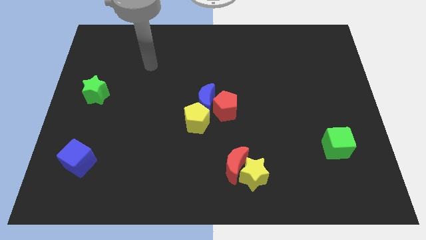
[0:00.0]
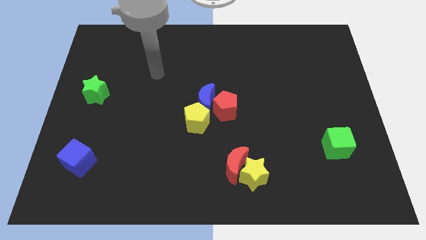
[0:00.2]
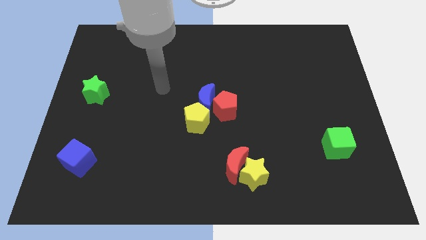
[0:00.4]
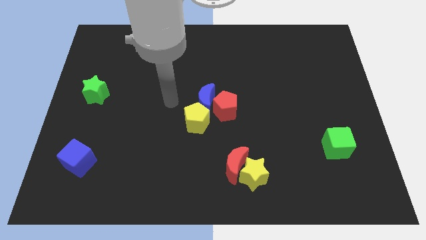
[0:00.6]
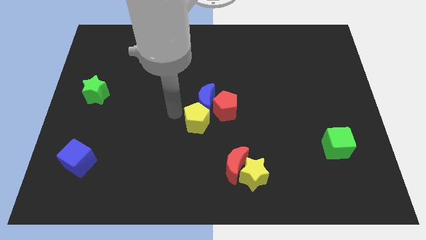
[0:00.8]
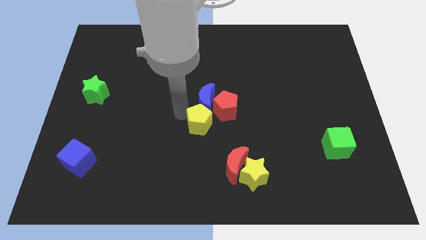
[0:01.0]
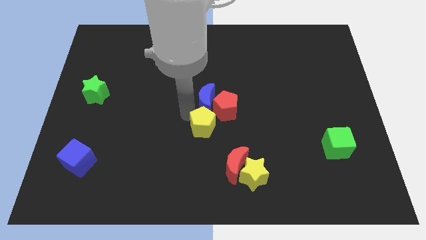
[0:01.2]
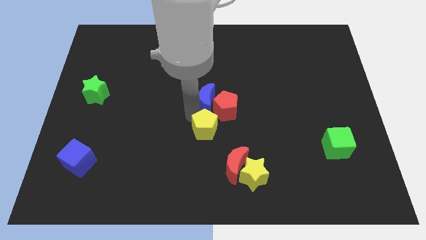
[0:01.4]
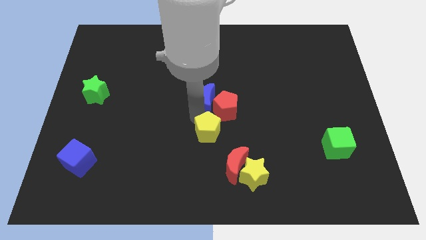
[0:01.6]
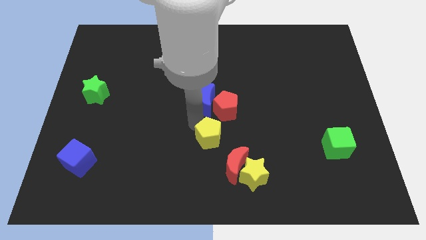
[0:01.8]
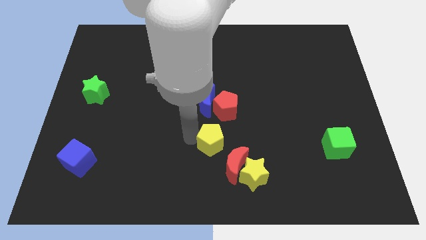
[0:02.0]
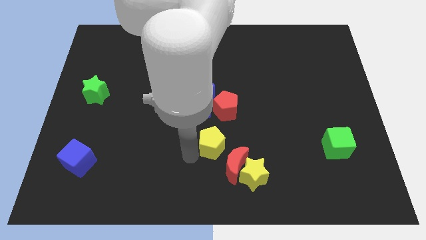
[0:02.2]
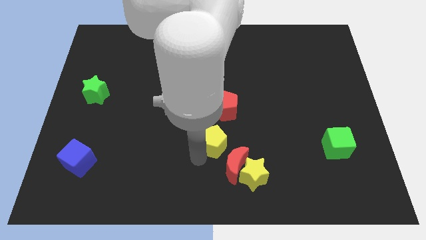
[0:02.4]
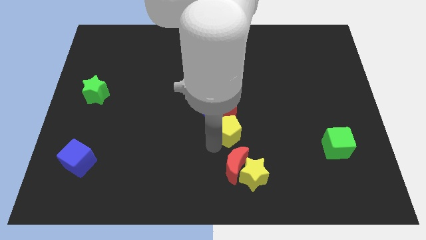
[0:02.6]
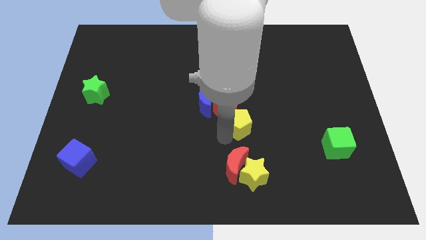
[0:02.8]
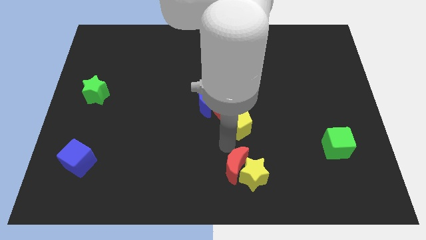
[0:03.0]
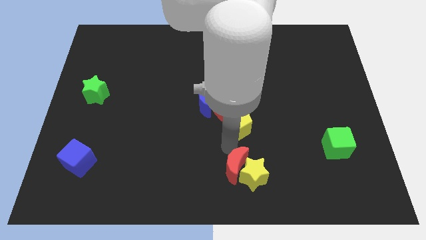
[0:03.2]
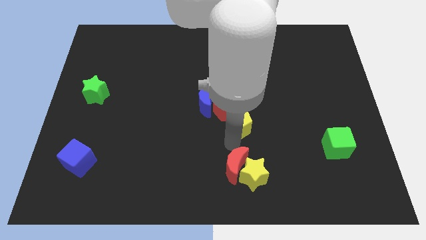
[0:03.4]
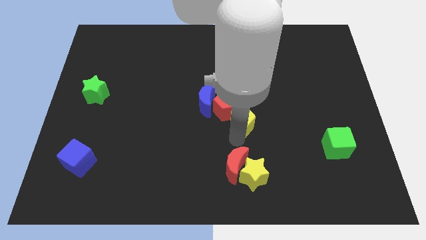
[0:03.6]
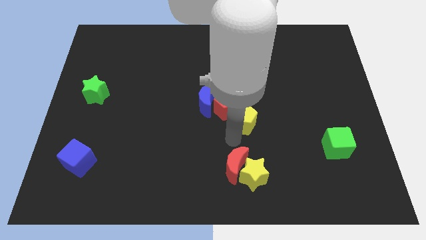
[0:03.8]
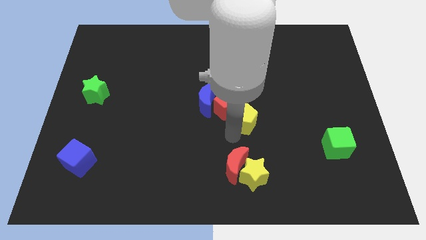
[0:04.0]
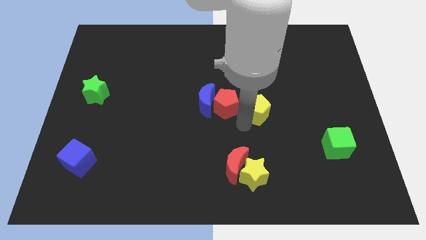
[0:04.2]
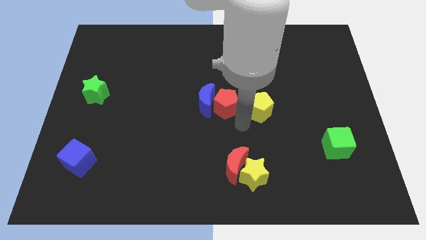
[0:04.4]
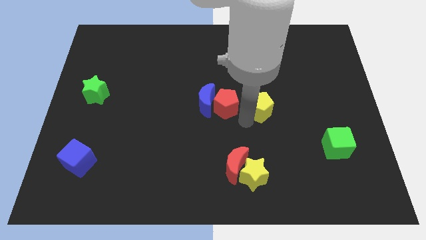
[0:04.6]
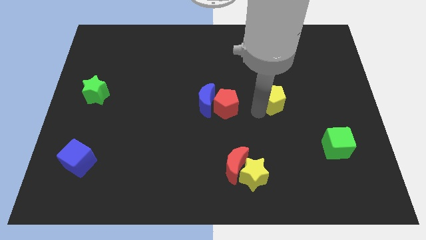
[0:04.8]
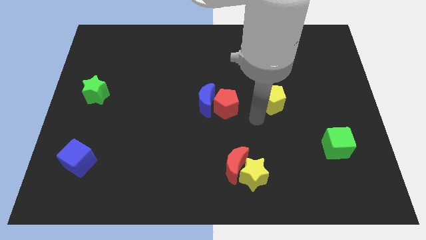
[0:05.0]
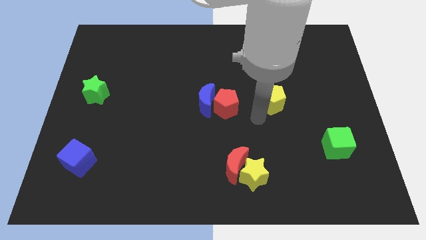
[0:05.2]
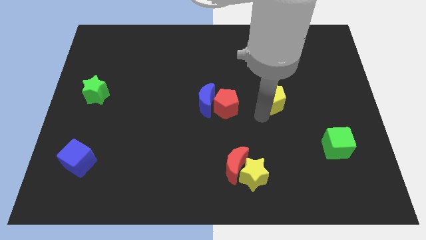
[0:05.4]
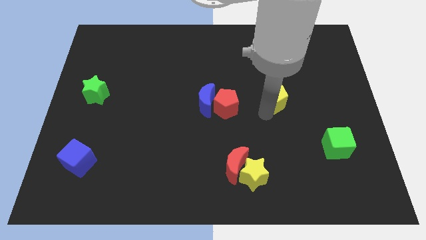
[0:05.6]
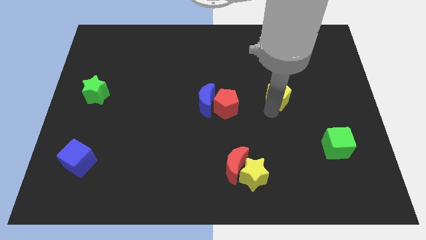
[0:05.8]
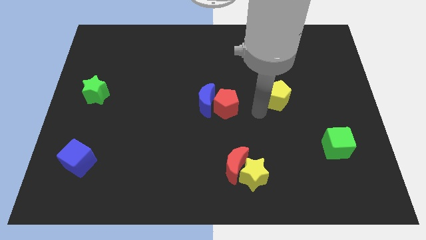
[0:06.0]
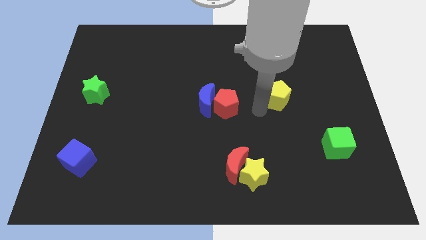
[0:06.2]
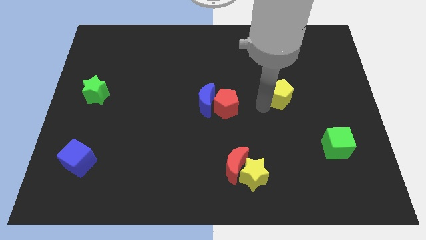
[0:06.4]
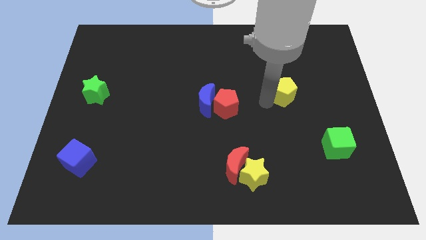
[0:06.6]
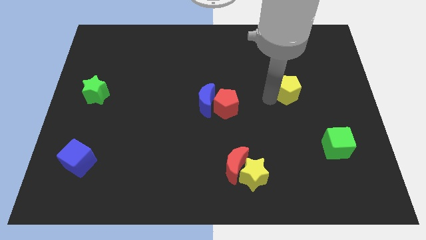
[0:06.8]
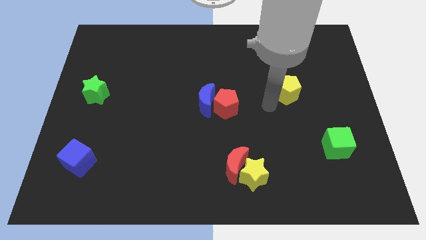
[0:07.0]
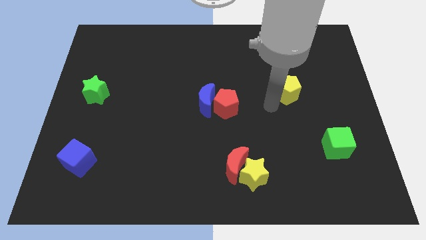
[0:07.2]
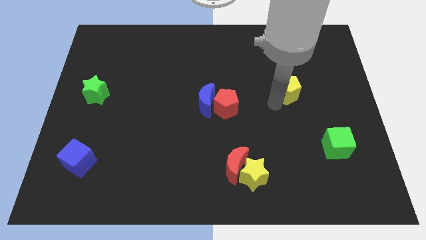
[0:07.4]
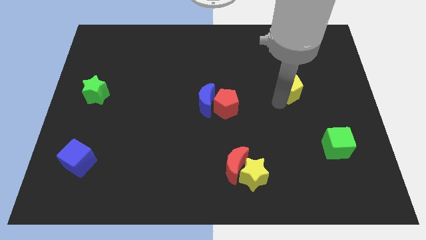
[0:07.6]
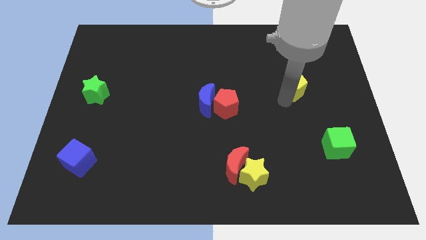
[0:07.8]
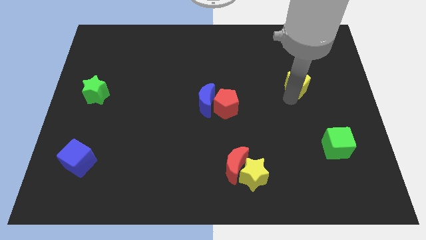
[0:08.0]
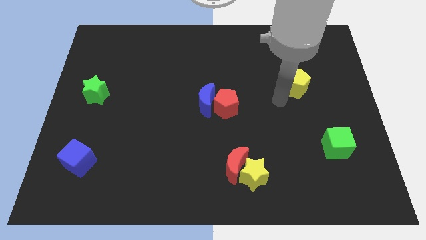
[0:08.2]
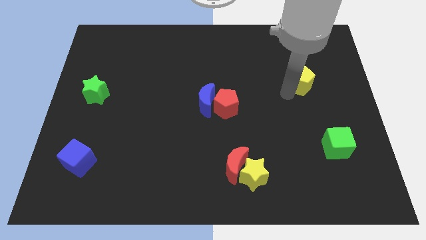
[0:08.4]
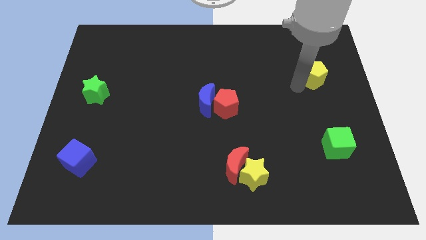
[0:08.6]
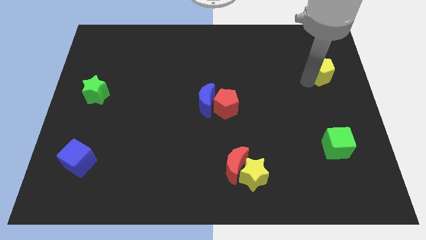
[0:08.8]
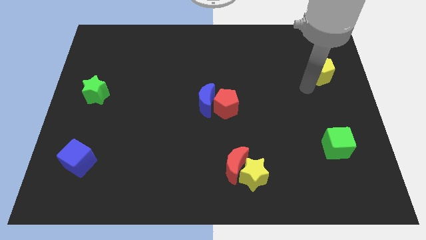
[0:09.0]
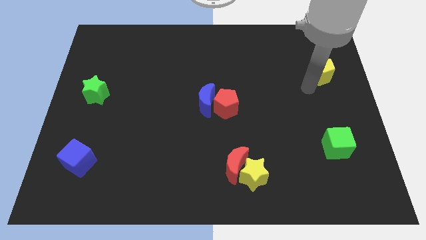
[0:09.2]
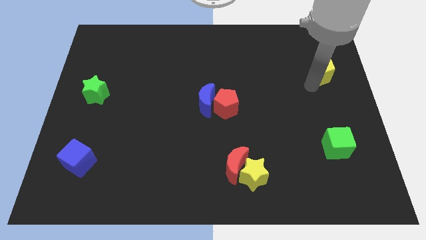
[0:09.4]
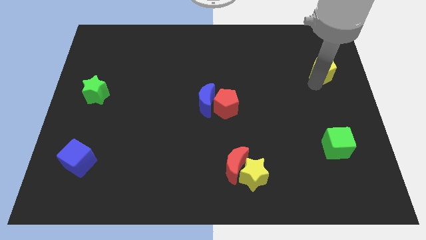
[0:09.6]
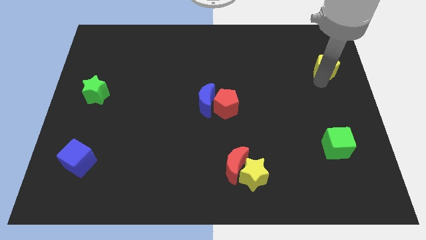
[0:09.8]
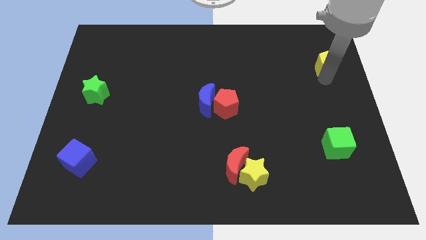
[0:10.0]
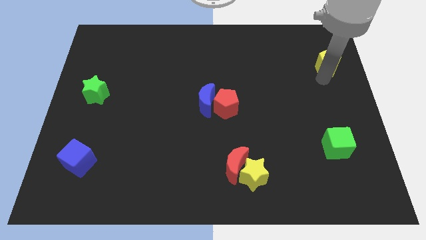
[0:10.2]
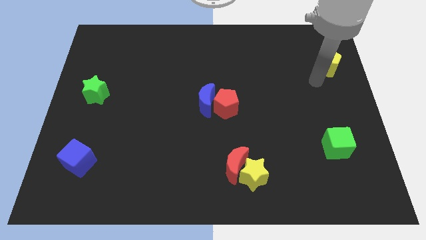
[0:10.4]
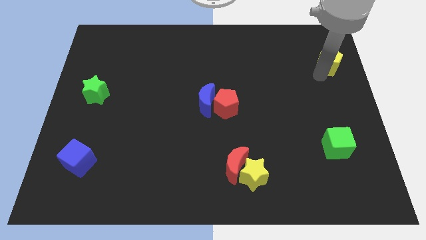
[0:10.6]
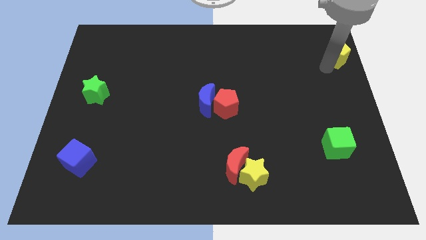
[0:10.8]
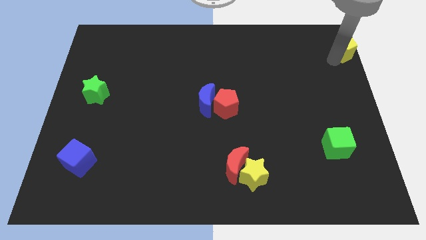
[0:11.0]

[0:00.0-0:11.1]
slide the yellow pentagon to the top right

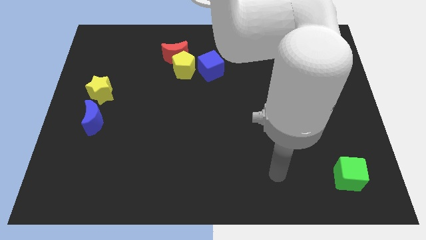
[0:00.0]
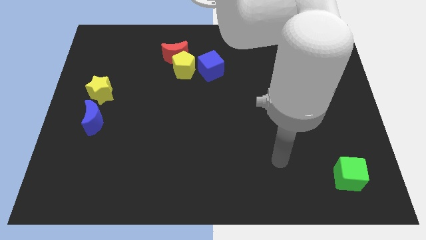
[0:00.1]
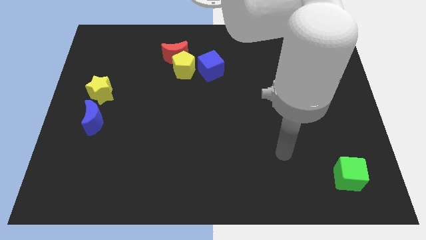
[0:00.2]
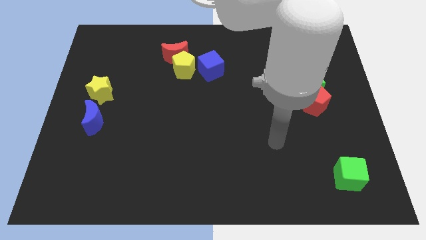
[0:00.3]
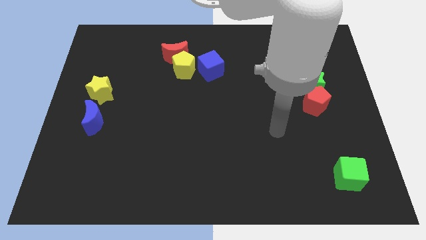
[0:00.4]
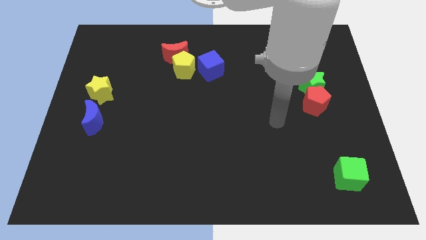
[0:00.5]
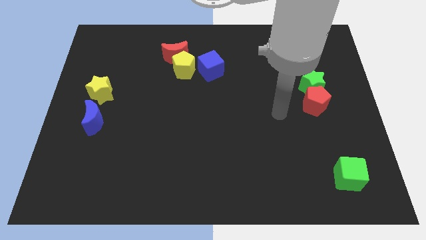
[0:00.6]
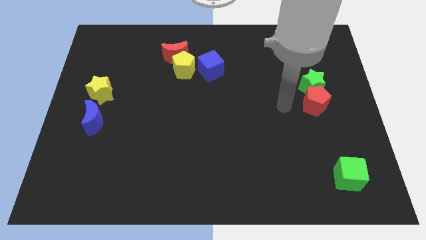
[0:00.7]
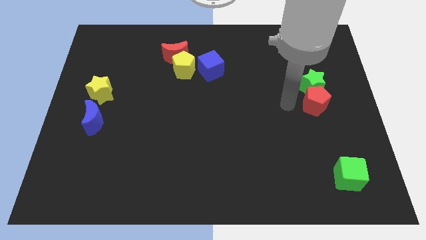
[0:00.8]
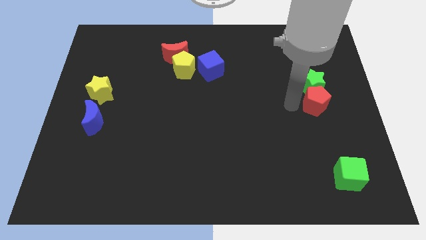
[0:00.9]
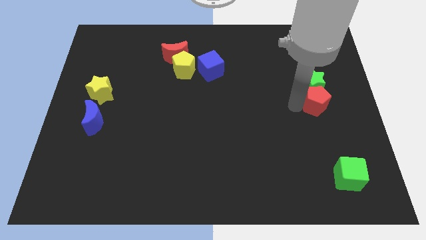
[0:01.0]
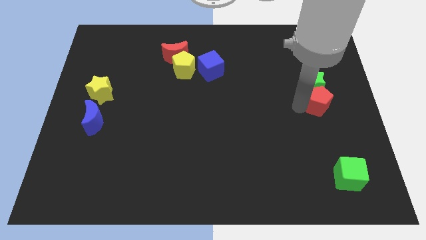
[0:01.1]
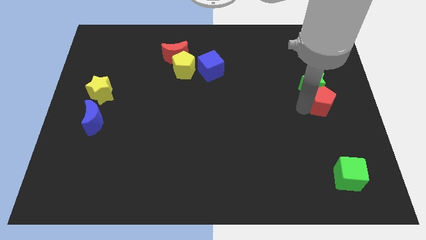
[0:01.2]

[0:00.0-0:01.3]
move the red pentagon to the right side
